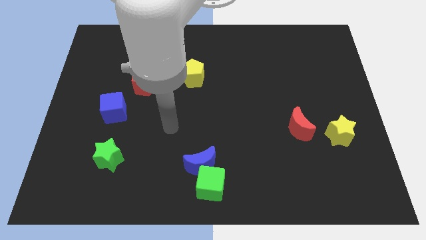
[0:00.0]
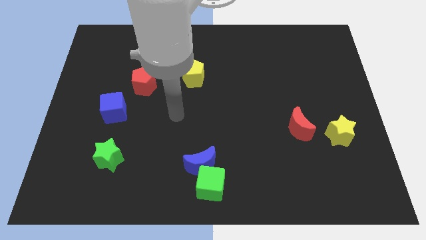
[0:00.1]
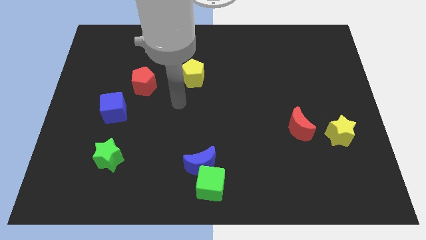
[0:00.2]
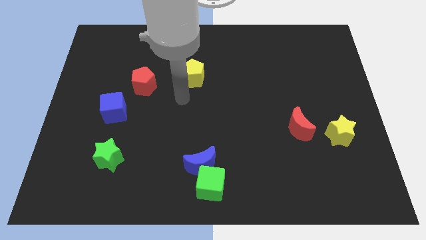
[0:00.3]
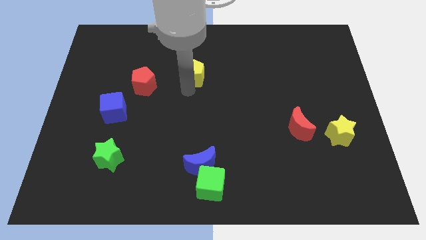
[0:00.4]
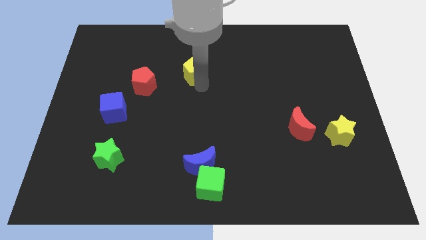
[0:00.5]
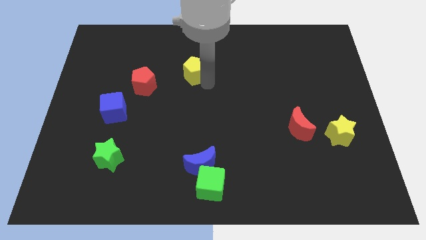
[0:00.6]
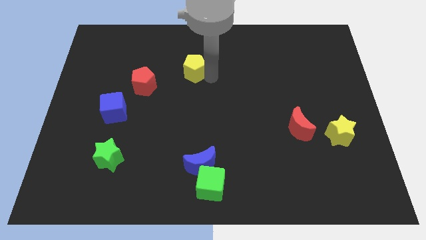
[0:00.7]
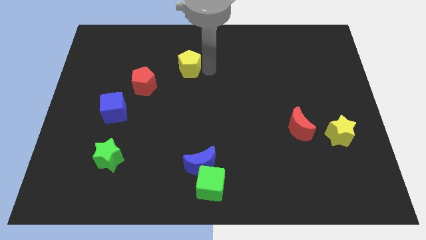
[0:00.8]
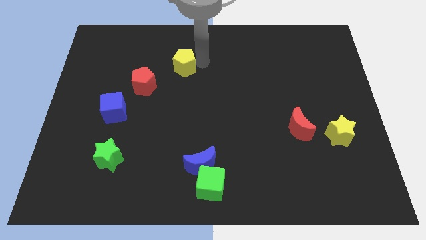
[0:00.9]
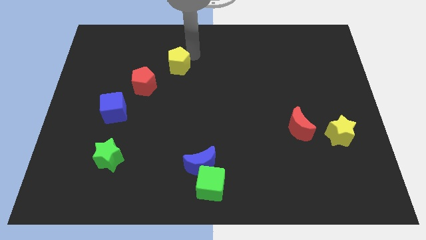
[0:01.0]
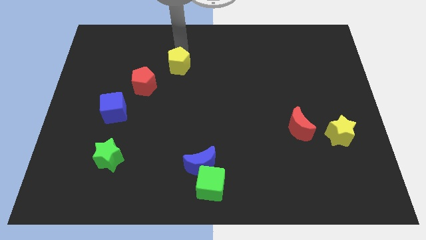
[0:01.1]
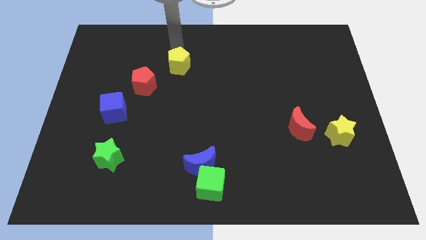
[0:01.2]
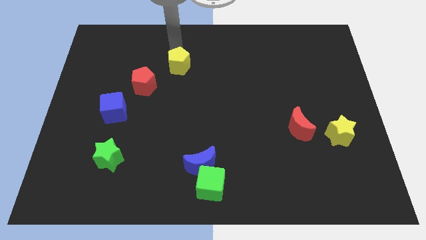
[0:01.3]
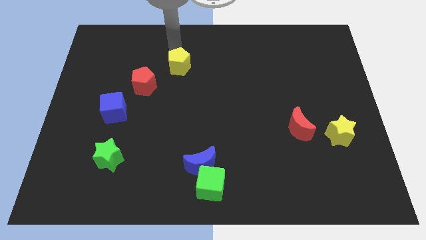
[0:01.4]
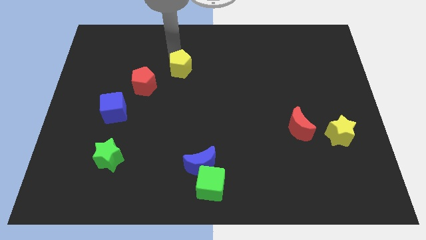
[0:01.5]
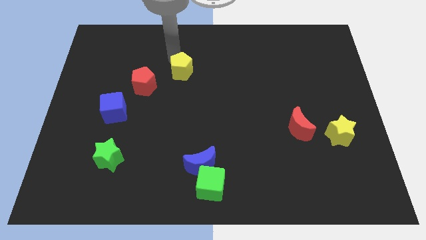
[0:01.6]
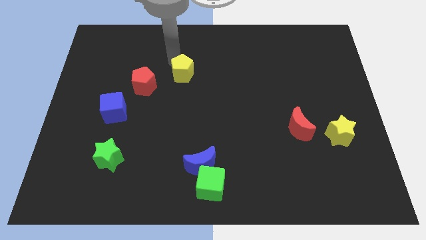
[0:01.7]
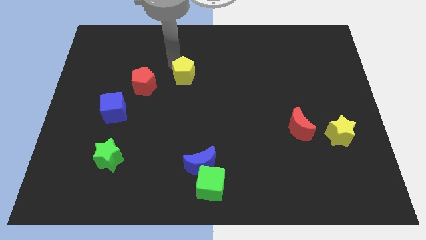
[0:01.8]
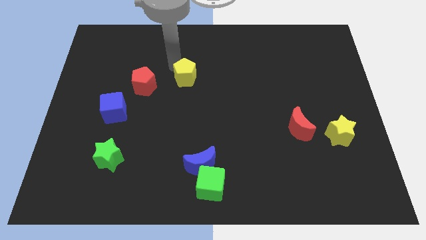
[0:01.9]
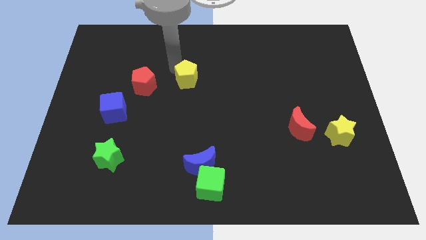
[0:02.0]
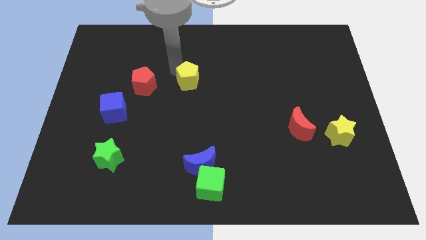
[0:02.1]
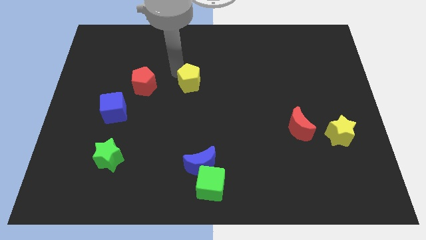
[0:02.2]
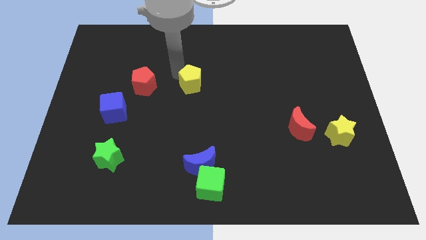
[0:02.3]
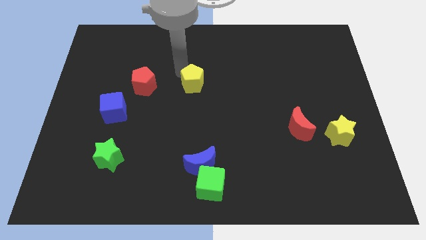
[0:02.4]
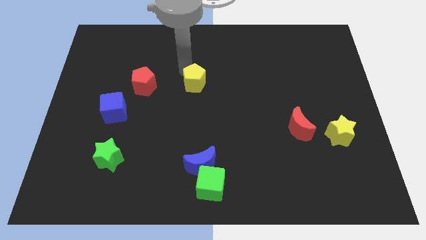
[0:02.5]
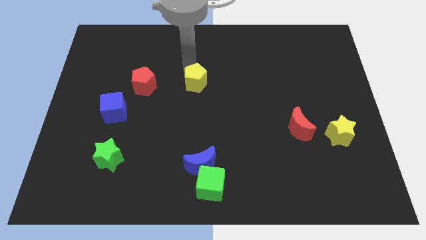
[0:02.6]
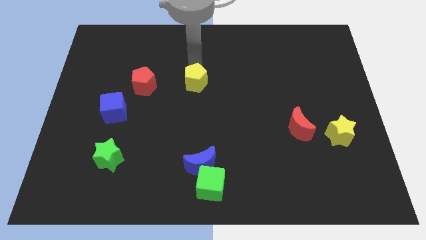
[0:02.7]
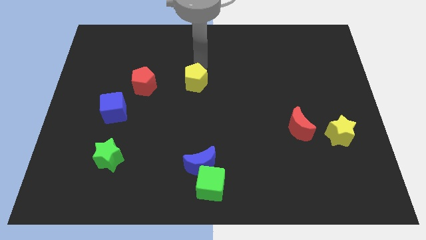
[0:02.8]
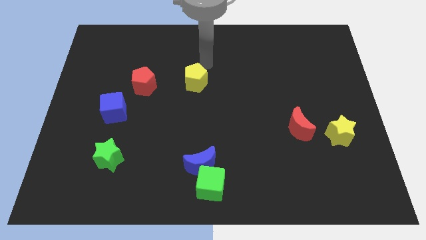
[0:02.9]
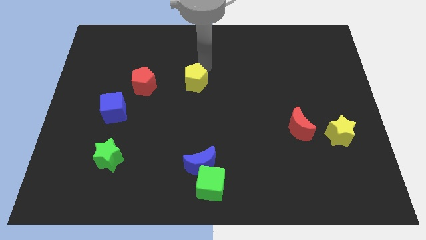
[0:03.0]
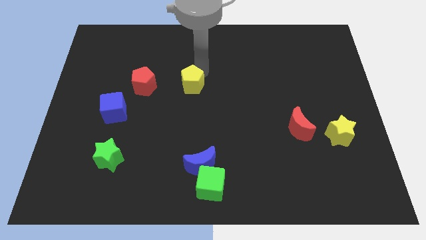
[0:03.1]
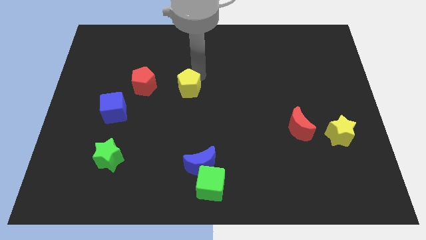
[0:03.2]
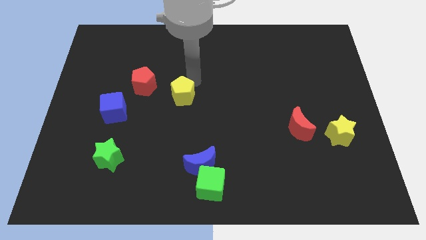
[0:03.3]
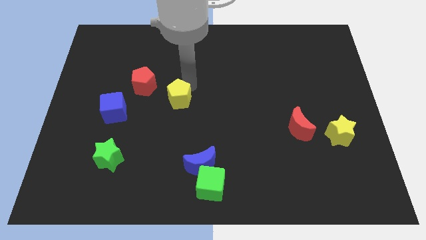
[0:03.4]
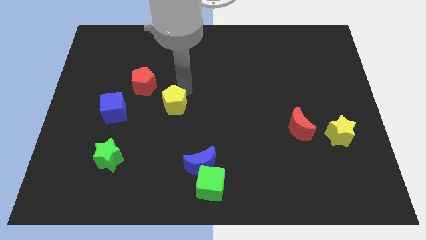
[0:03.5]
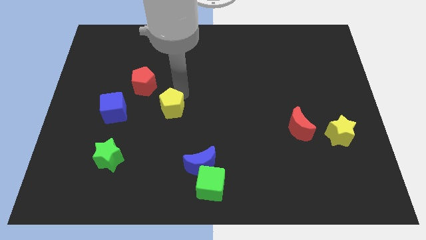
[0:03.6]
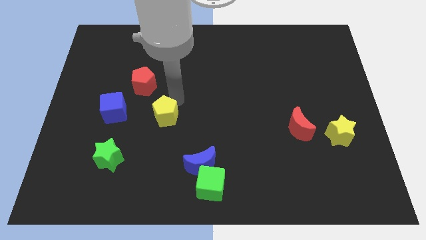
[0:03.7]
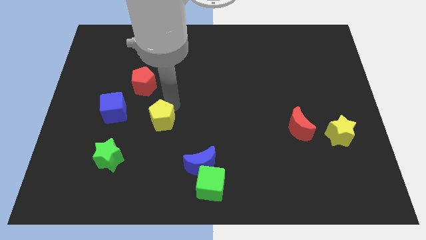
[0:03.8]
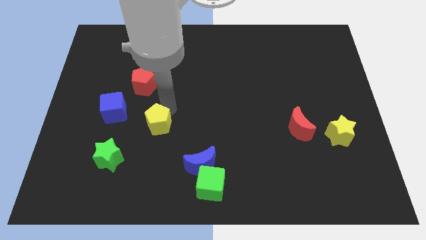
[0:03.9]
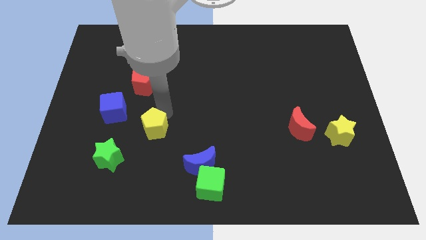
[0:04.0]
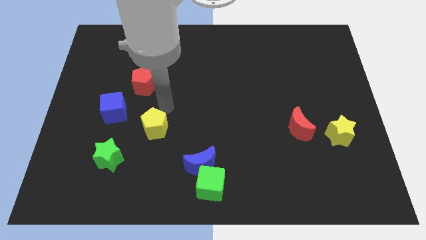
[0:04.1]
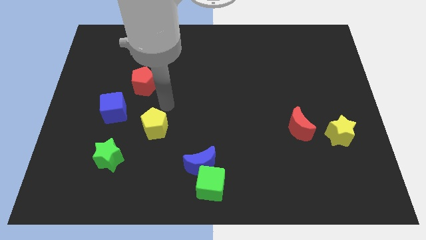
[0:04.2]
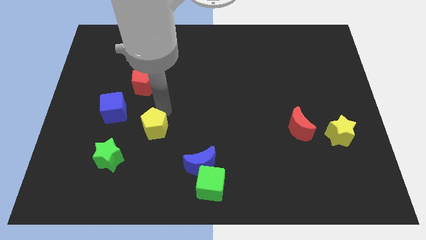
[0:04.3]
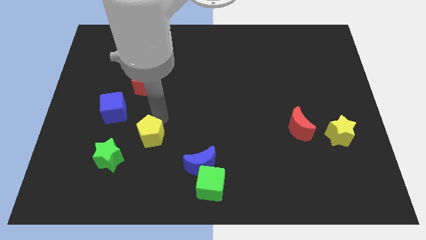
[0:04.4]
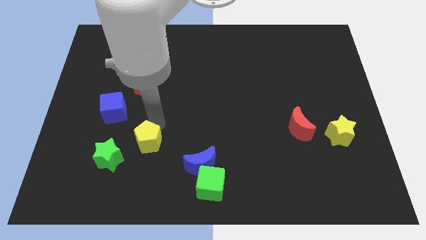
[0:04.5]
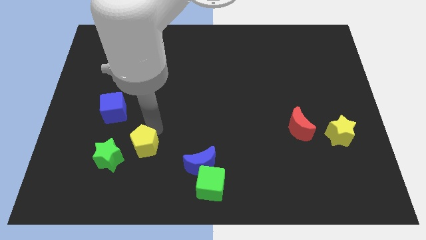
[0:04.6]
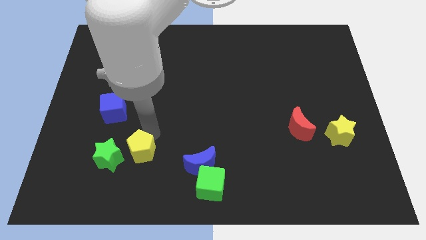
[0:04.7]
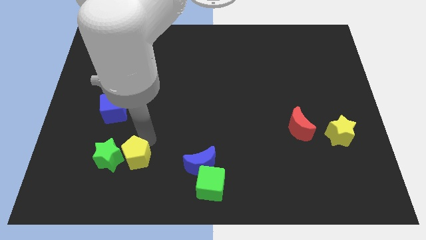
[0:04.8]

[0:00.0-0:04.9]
slide the yellow pentagon diagonally down and to the right of the green star

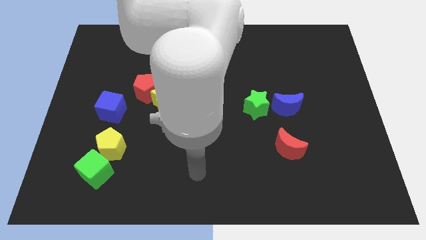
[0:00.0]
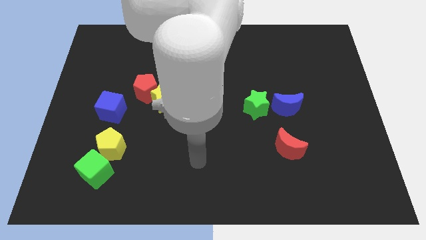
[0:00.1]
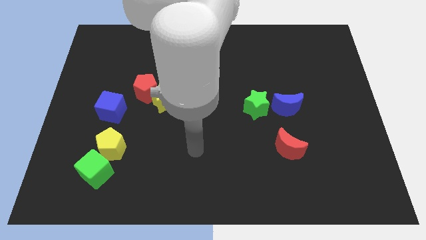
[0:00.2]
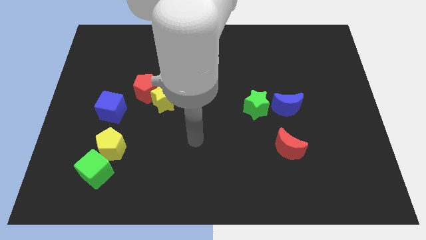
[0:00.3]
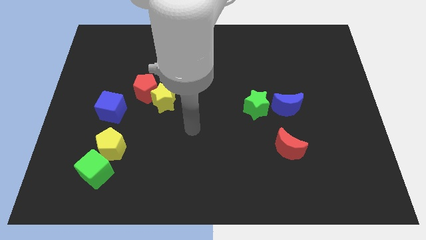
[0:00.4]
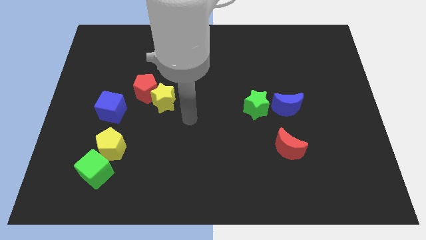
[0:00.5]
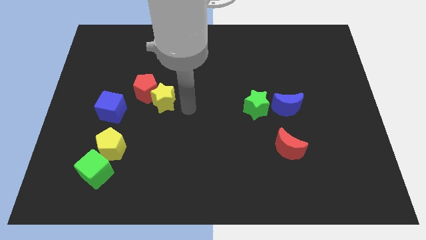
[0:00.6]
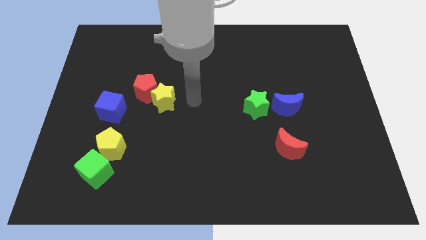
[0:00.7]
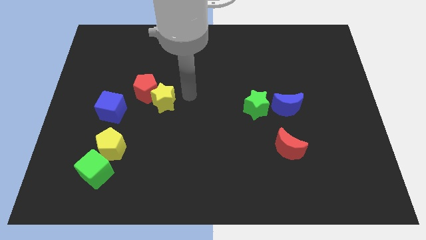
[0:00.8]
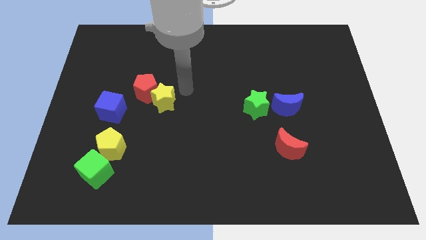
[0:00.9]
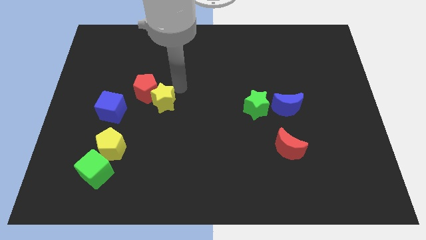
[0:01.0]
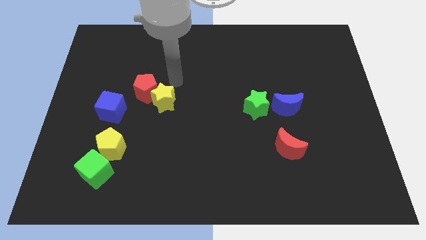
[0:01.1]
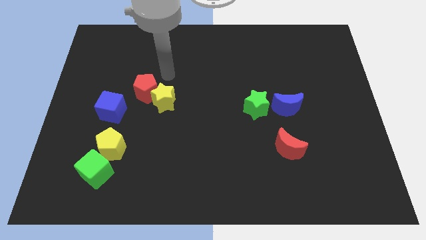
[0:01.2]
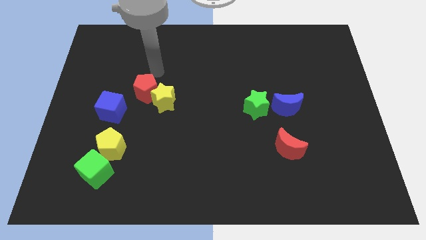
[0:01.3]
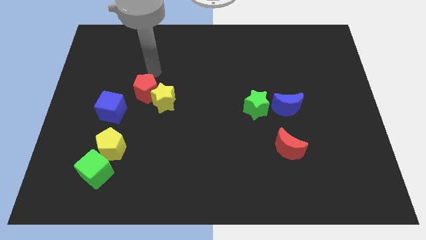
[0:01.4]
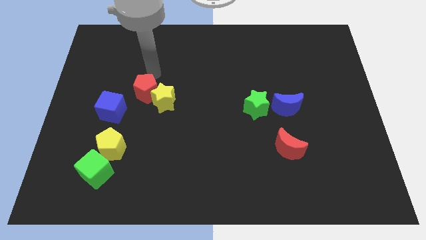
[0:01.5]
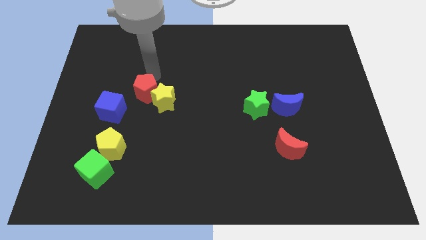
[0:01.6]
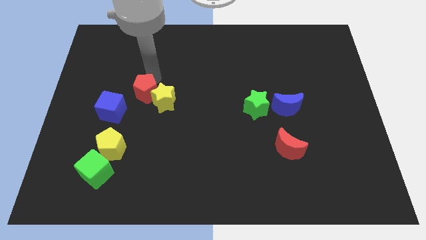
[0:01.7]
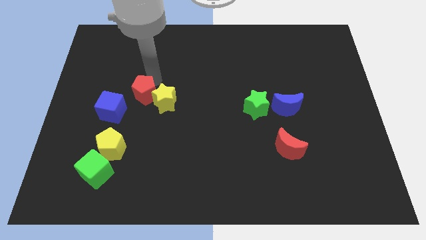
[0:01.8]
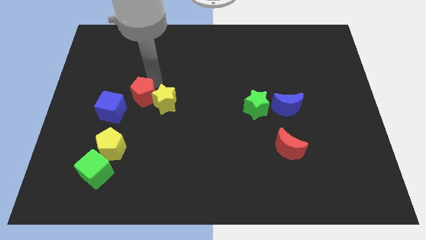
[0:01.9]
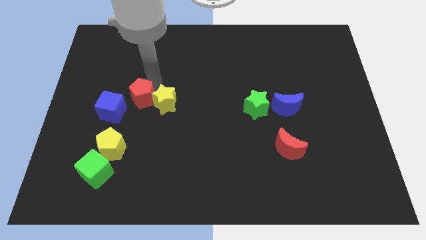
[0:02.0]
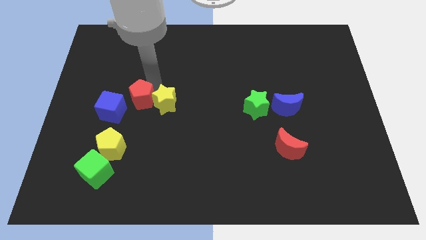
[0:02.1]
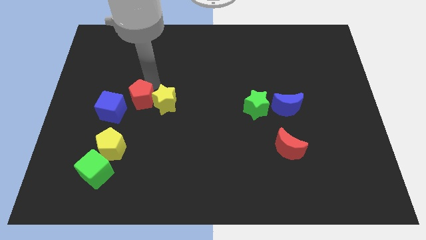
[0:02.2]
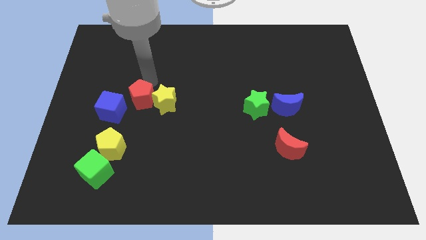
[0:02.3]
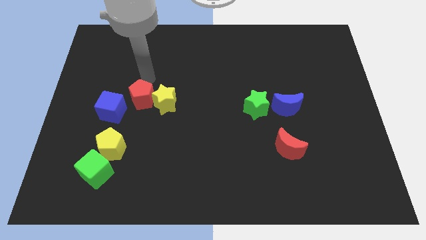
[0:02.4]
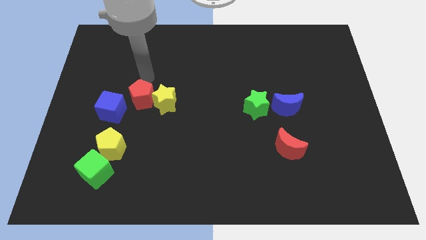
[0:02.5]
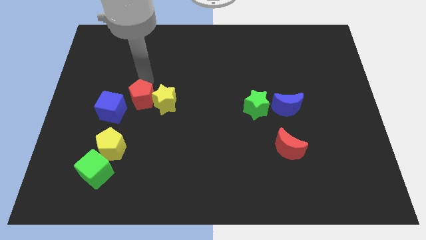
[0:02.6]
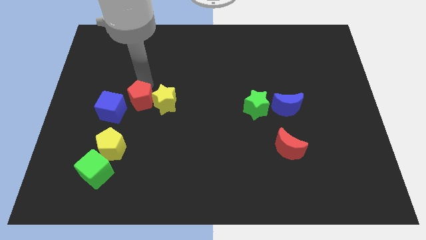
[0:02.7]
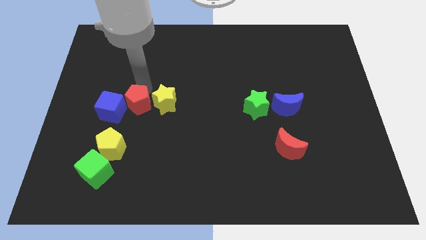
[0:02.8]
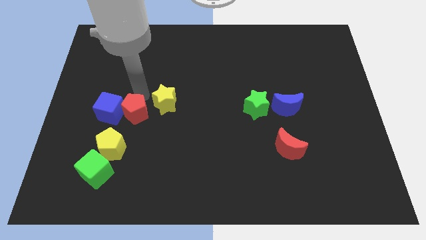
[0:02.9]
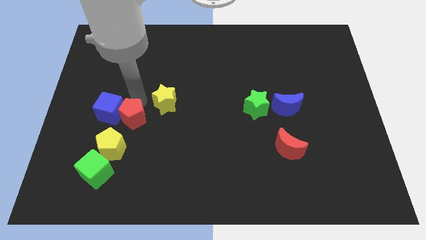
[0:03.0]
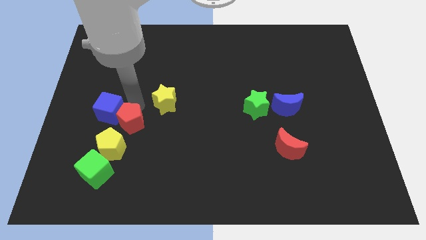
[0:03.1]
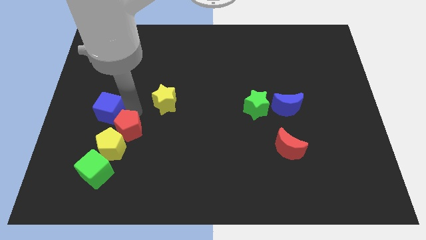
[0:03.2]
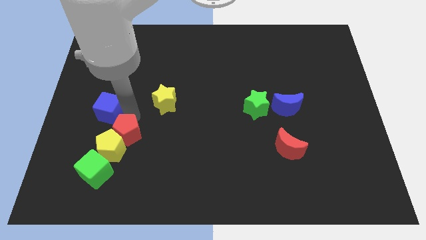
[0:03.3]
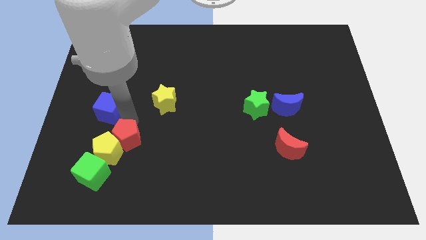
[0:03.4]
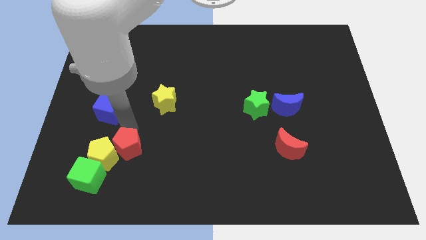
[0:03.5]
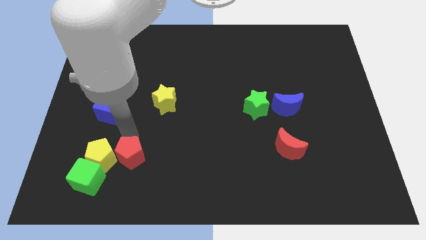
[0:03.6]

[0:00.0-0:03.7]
move the red pentagon diagonally down and to the right of the yellow pentagon
